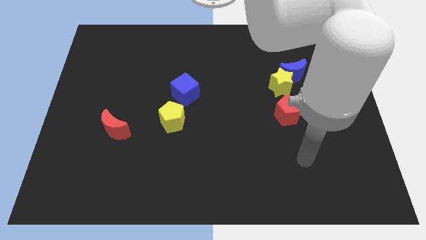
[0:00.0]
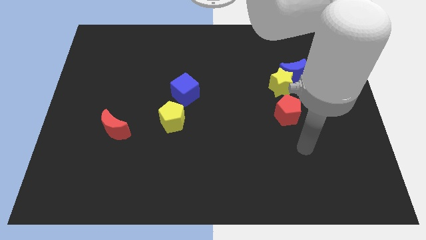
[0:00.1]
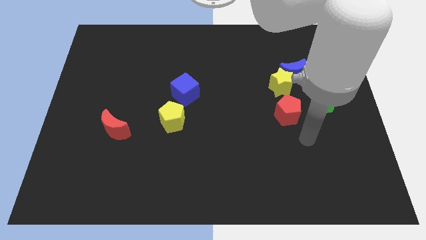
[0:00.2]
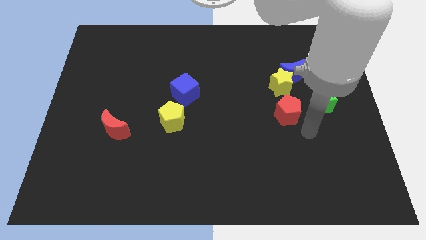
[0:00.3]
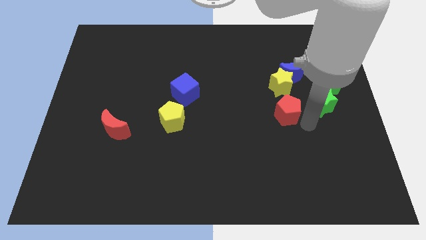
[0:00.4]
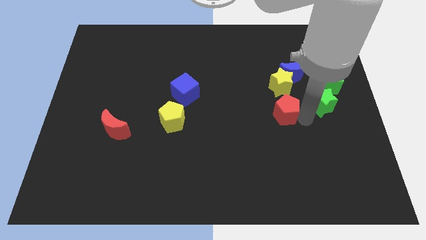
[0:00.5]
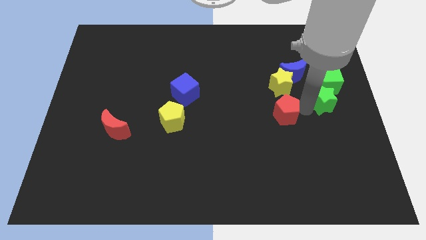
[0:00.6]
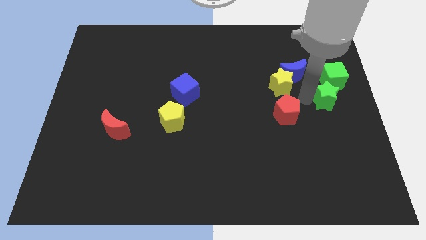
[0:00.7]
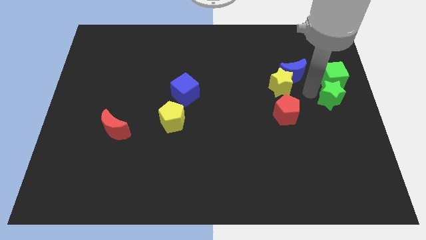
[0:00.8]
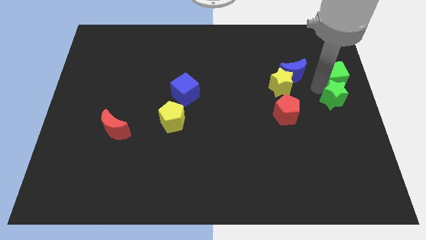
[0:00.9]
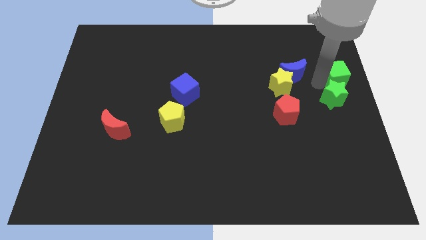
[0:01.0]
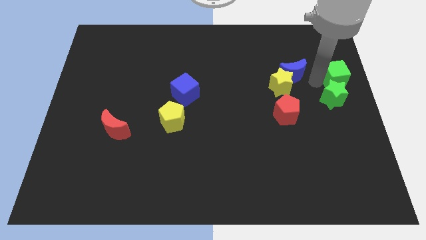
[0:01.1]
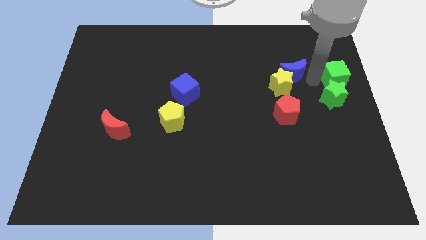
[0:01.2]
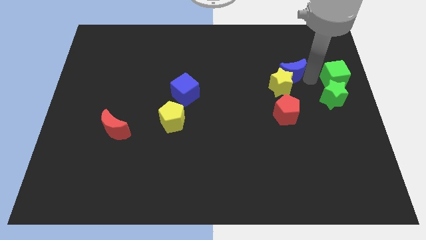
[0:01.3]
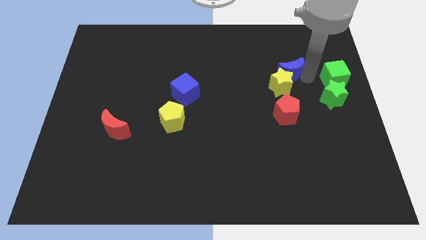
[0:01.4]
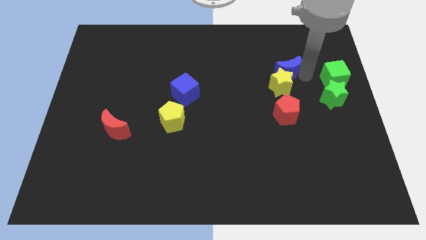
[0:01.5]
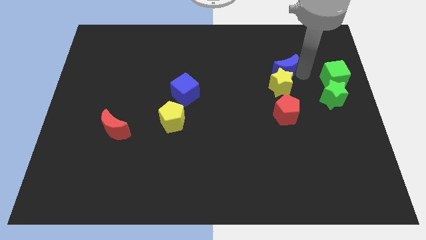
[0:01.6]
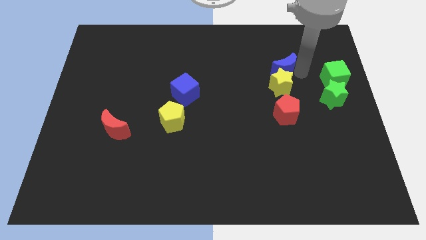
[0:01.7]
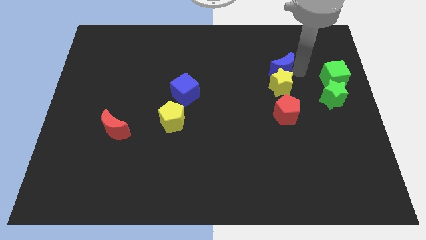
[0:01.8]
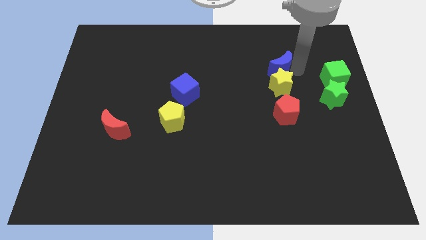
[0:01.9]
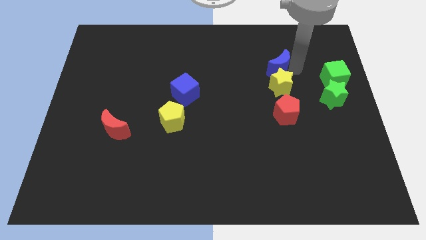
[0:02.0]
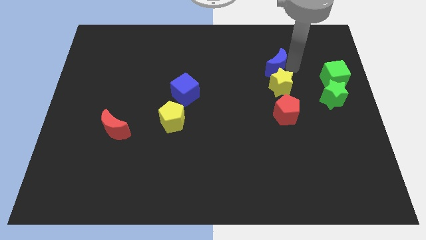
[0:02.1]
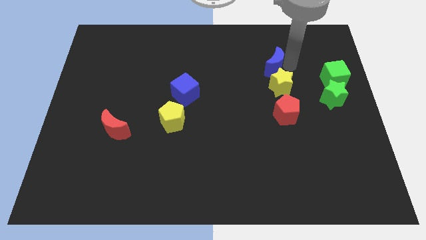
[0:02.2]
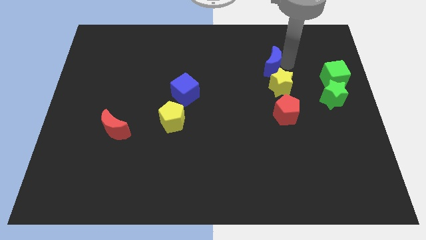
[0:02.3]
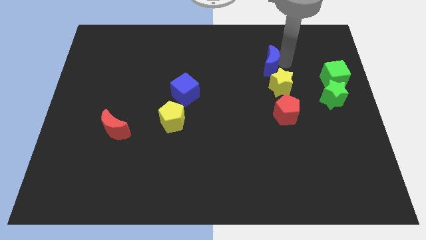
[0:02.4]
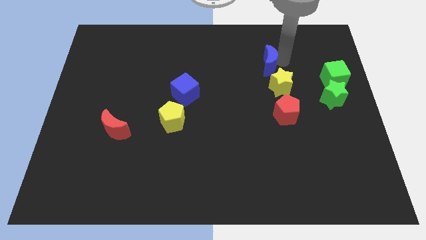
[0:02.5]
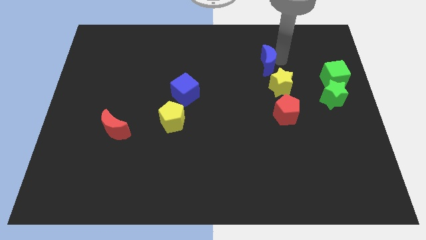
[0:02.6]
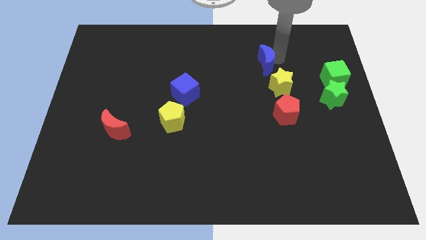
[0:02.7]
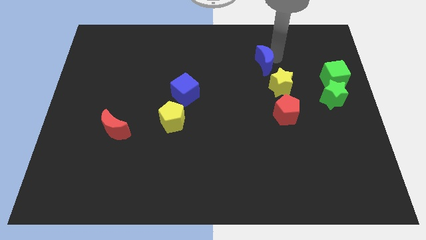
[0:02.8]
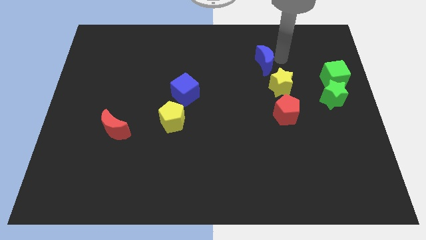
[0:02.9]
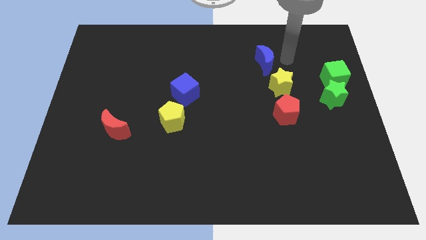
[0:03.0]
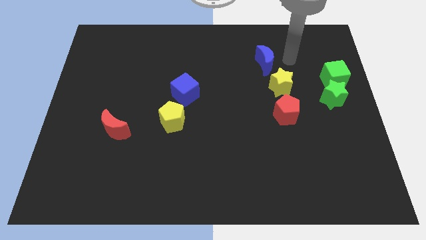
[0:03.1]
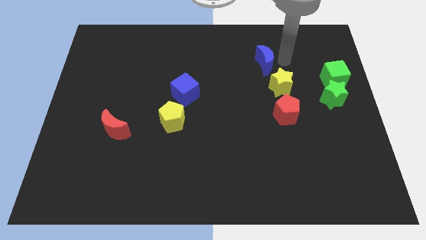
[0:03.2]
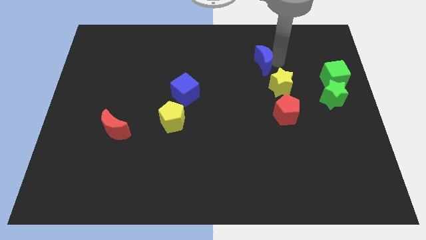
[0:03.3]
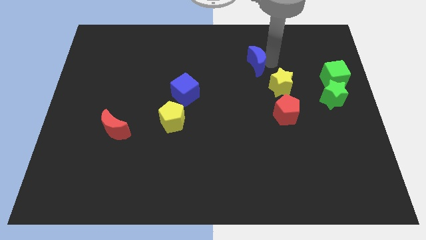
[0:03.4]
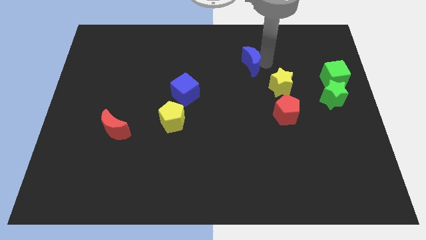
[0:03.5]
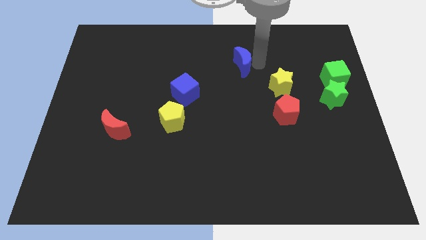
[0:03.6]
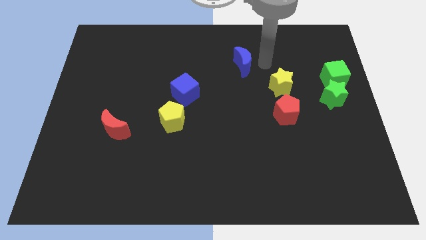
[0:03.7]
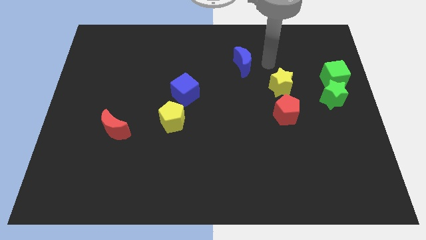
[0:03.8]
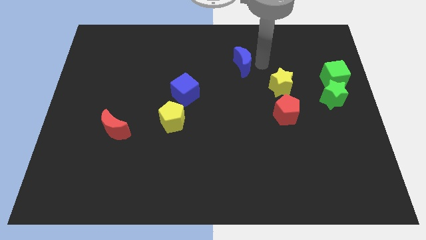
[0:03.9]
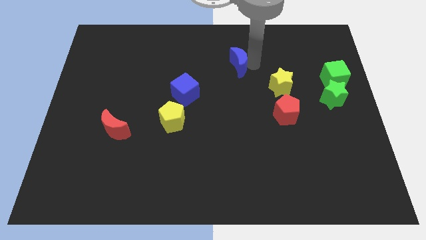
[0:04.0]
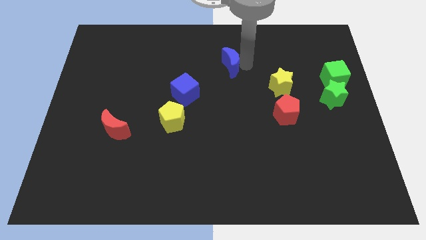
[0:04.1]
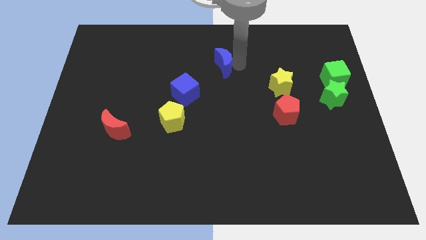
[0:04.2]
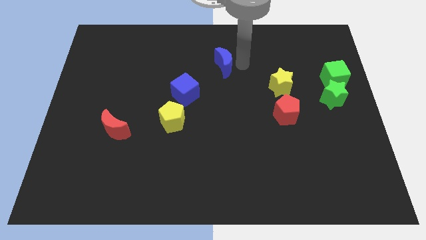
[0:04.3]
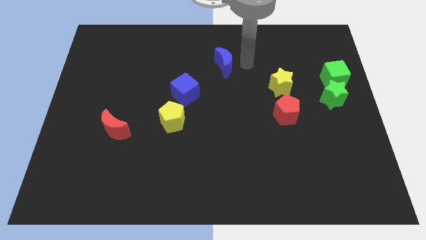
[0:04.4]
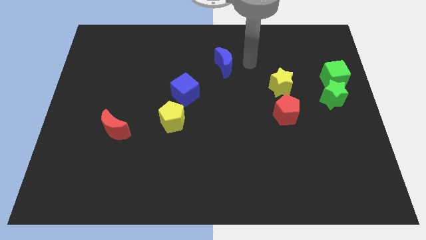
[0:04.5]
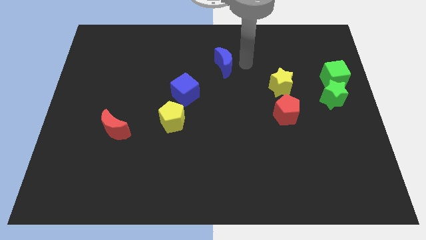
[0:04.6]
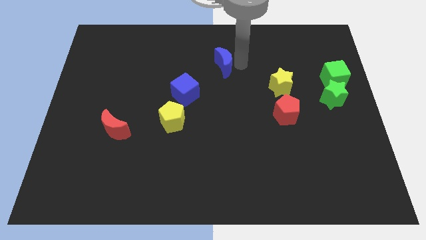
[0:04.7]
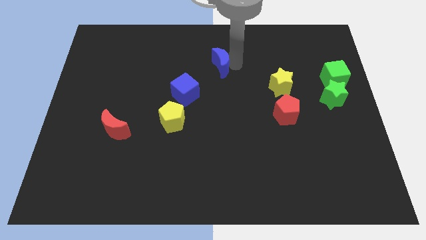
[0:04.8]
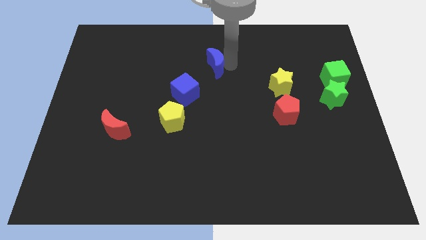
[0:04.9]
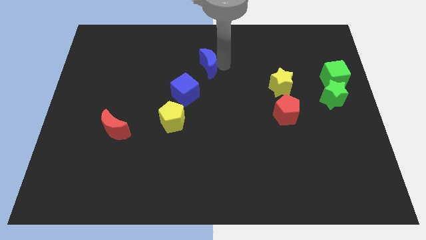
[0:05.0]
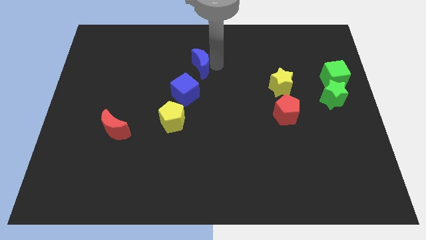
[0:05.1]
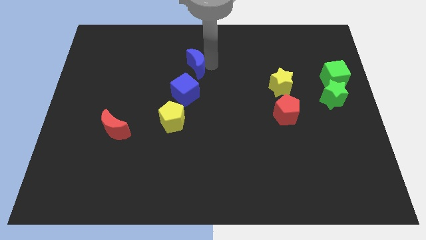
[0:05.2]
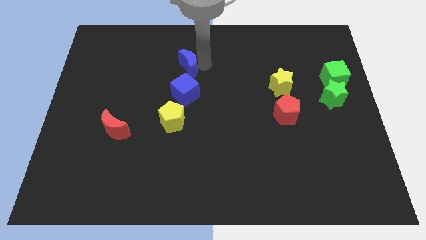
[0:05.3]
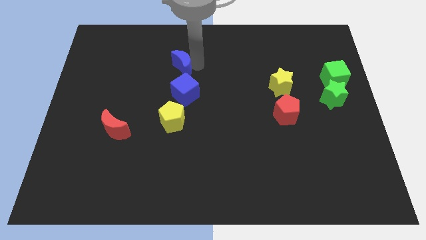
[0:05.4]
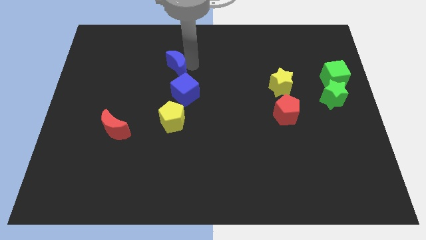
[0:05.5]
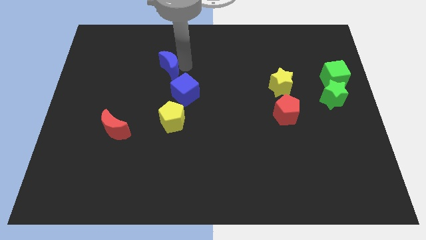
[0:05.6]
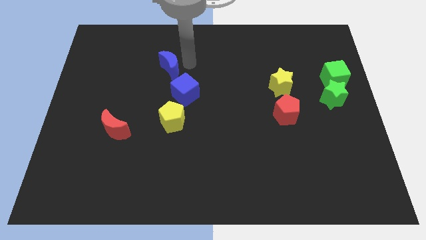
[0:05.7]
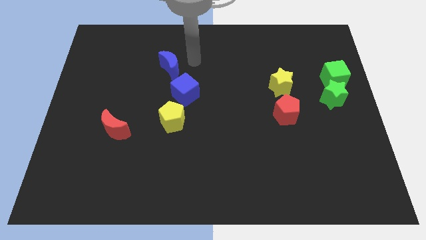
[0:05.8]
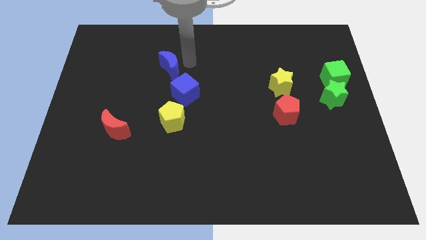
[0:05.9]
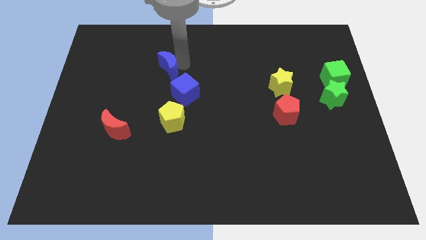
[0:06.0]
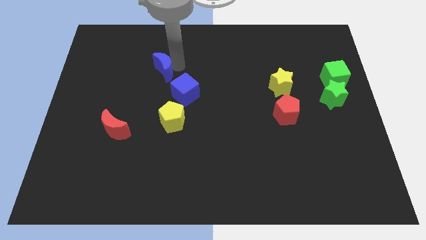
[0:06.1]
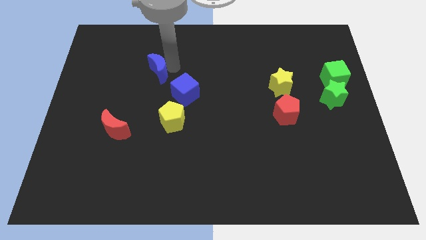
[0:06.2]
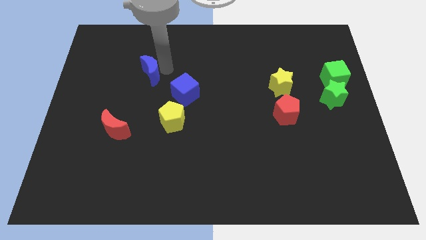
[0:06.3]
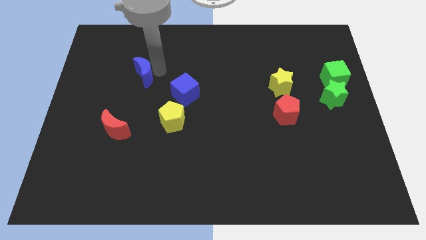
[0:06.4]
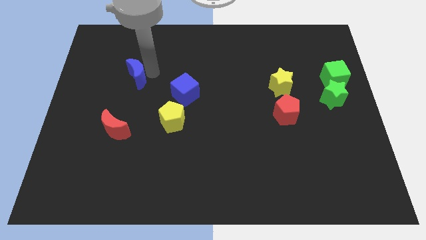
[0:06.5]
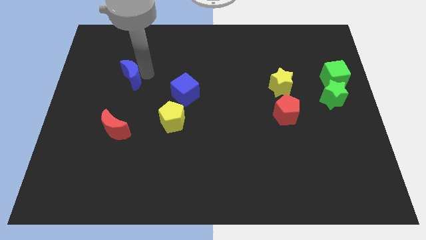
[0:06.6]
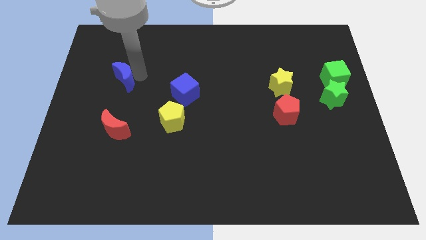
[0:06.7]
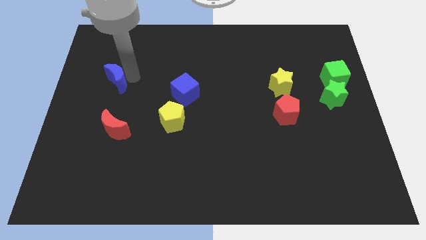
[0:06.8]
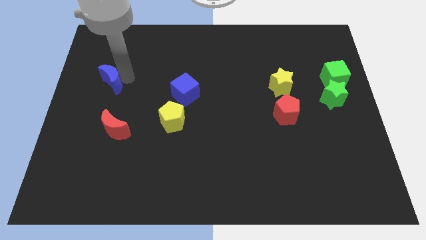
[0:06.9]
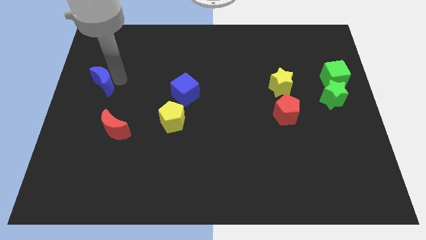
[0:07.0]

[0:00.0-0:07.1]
slide the blue moon to the left side
